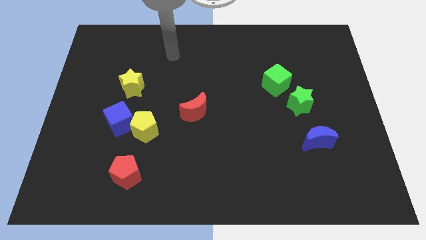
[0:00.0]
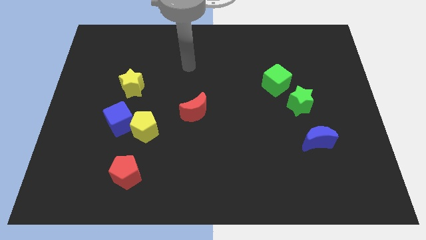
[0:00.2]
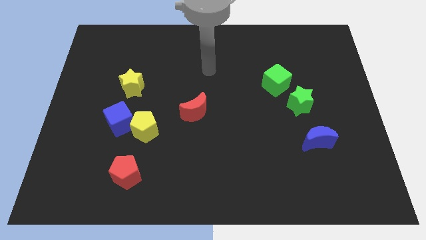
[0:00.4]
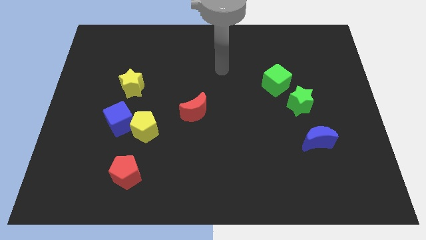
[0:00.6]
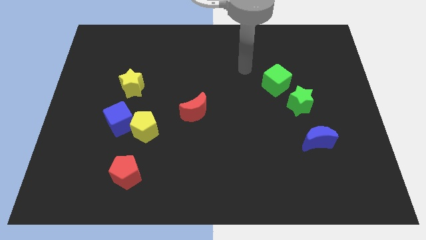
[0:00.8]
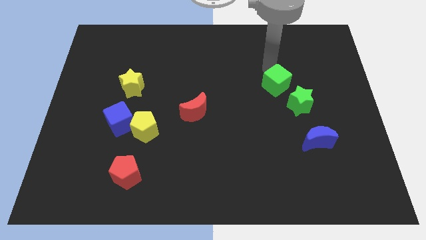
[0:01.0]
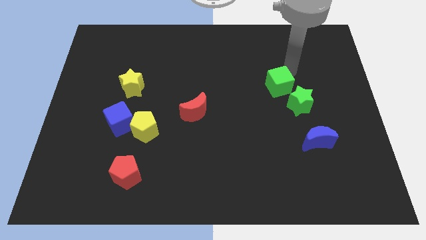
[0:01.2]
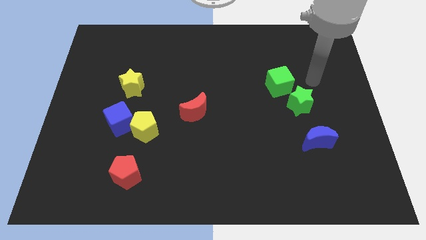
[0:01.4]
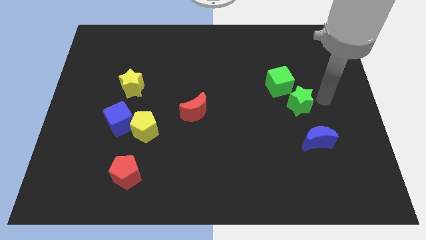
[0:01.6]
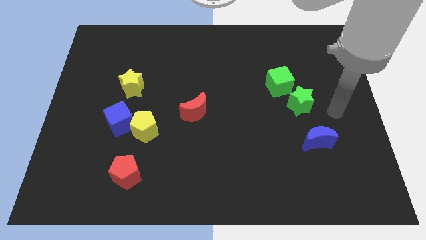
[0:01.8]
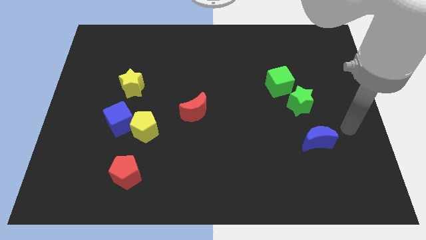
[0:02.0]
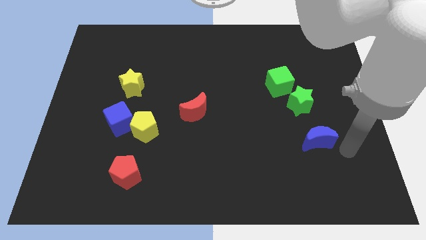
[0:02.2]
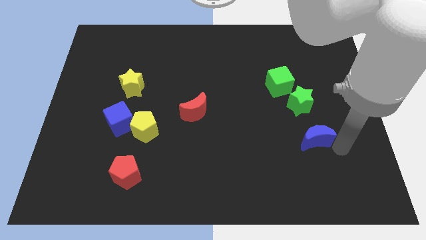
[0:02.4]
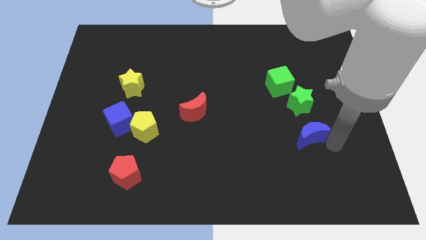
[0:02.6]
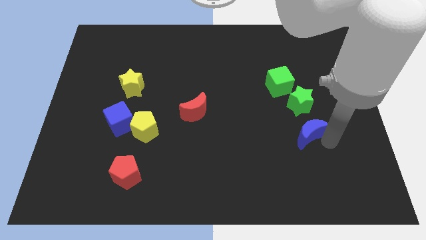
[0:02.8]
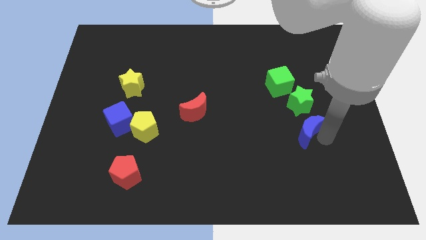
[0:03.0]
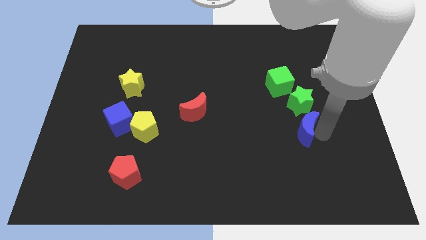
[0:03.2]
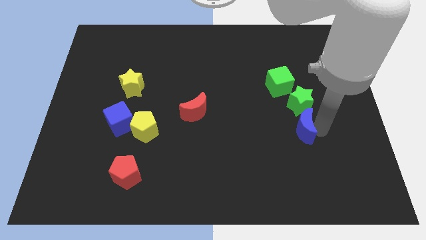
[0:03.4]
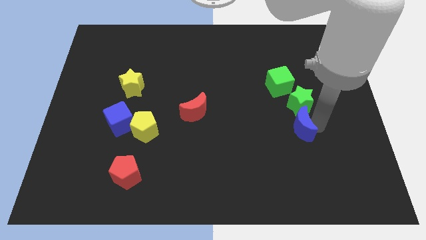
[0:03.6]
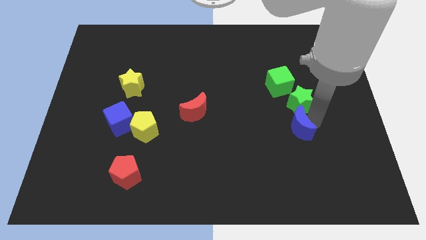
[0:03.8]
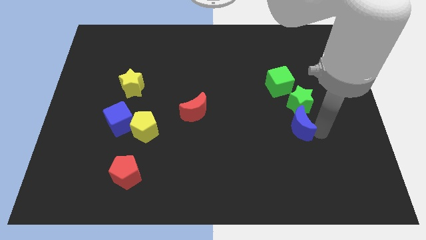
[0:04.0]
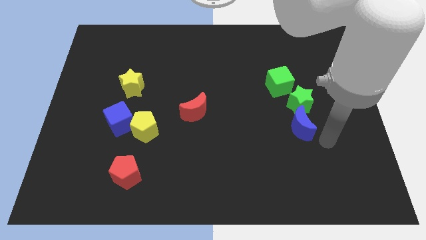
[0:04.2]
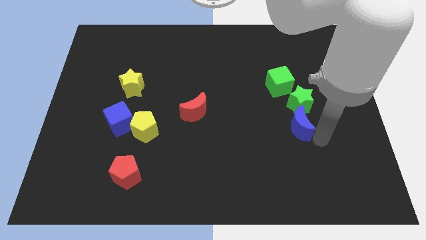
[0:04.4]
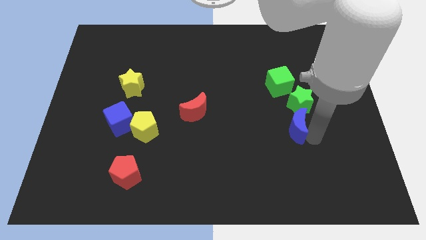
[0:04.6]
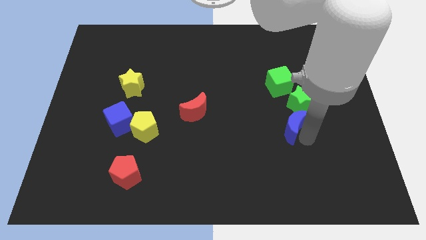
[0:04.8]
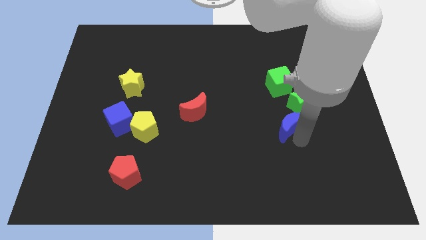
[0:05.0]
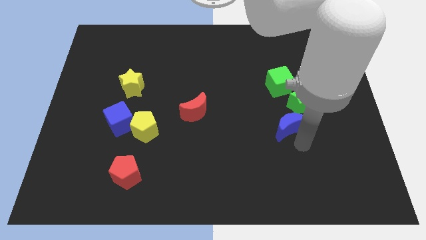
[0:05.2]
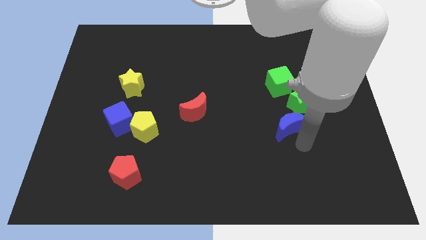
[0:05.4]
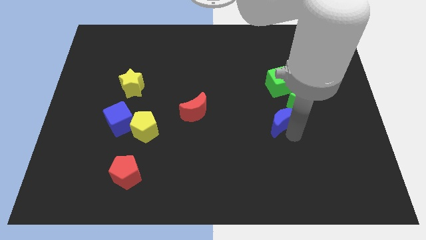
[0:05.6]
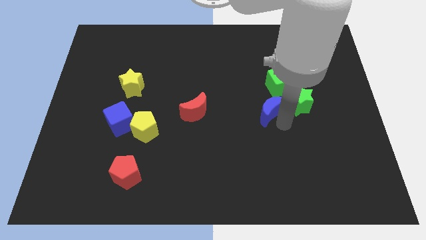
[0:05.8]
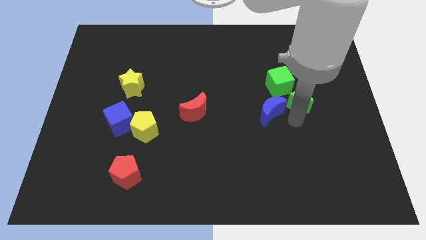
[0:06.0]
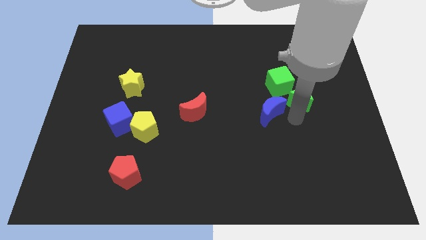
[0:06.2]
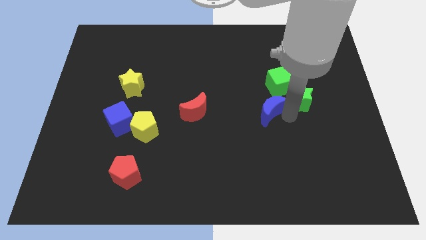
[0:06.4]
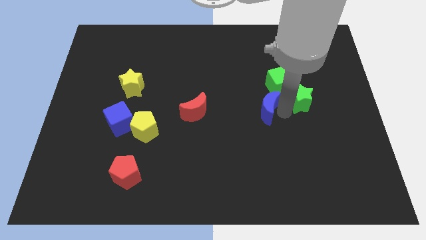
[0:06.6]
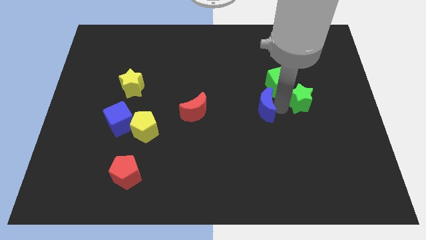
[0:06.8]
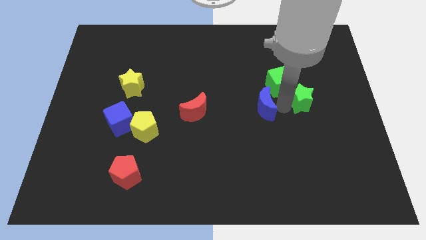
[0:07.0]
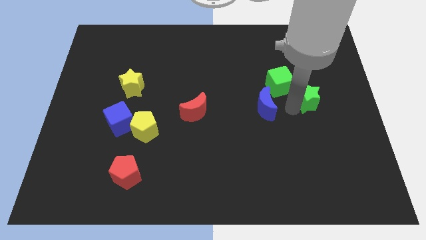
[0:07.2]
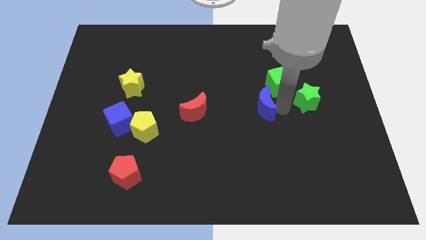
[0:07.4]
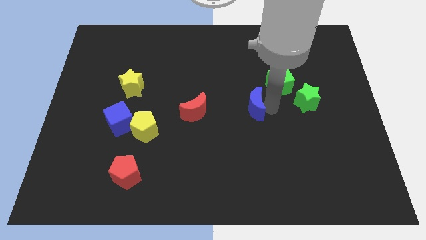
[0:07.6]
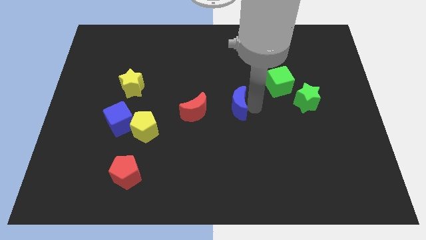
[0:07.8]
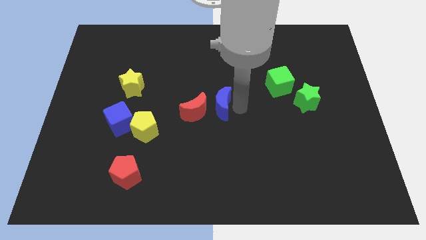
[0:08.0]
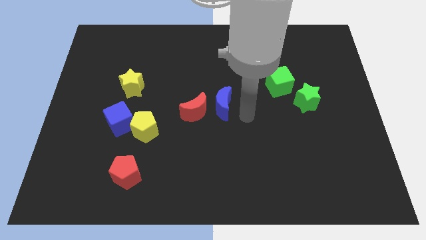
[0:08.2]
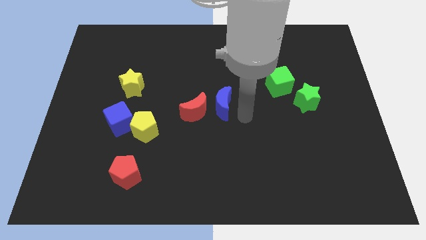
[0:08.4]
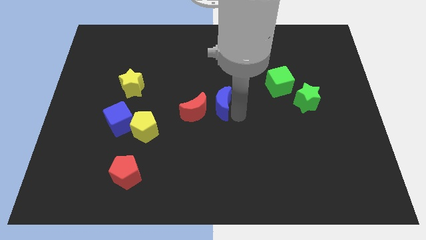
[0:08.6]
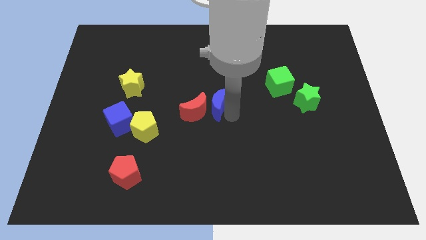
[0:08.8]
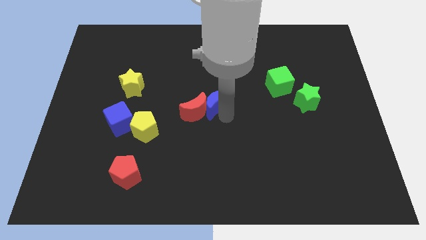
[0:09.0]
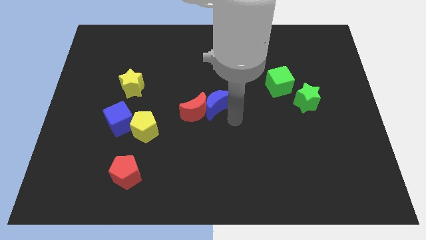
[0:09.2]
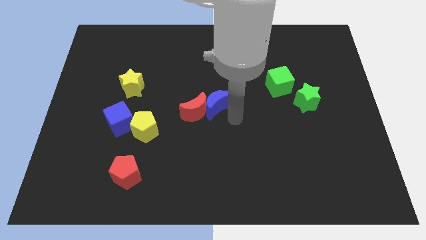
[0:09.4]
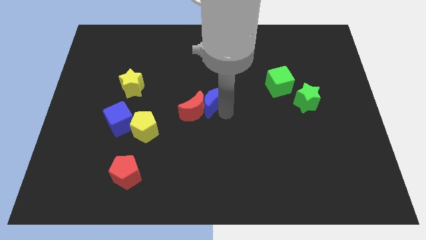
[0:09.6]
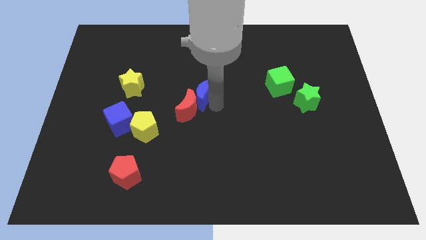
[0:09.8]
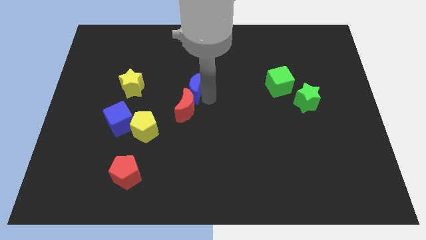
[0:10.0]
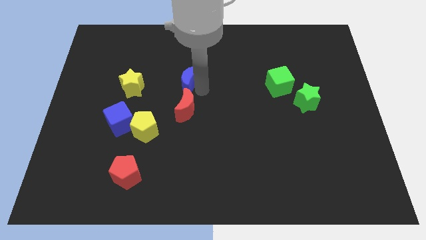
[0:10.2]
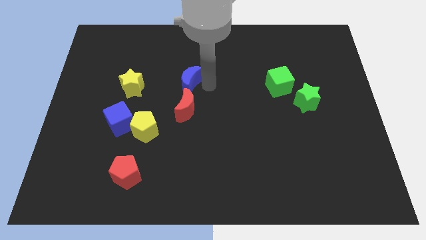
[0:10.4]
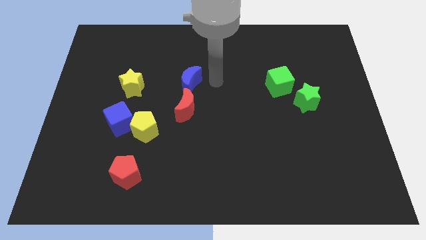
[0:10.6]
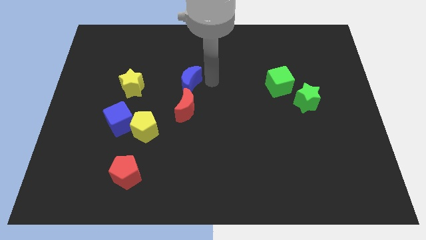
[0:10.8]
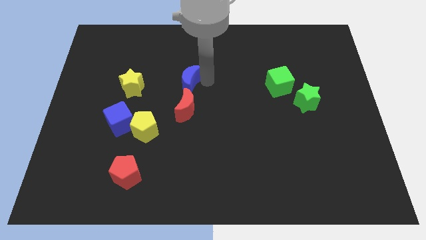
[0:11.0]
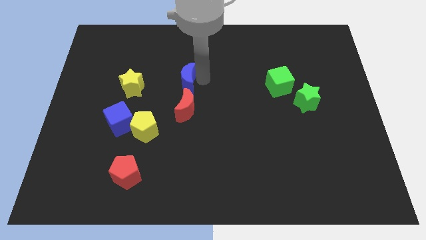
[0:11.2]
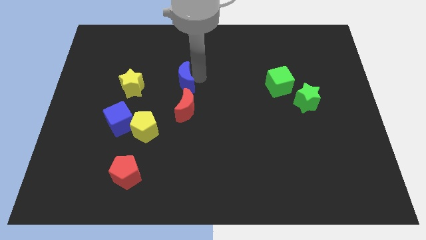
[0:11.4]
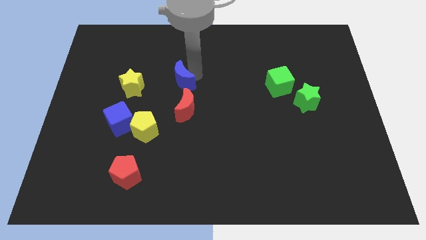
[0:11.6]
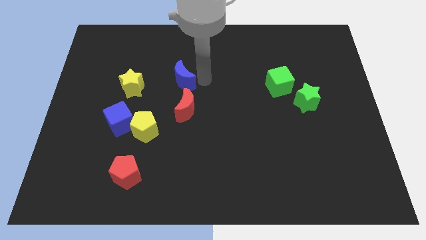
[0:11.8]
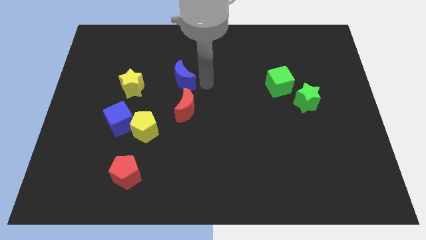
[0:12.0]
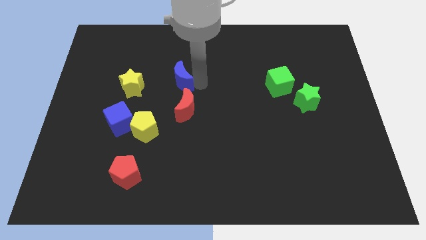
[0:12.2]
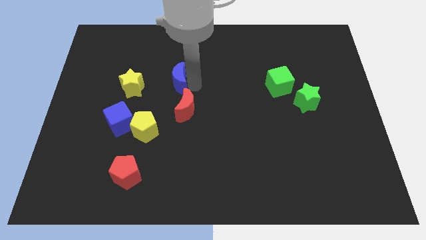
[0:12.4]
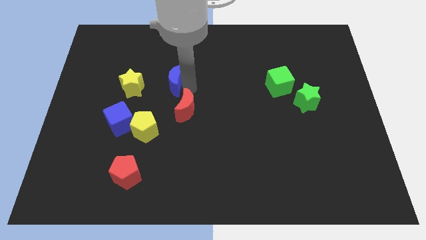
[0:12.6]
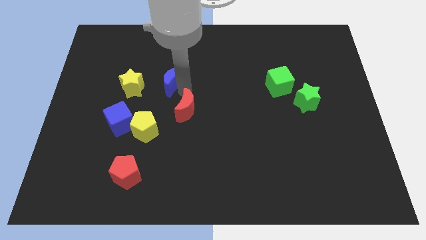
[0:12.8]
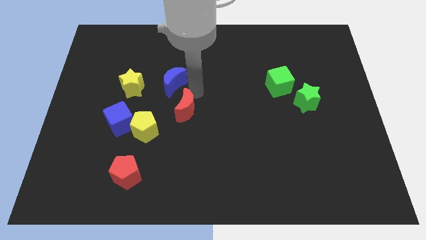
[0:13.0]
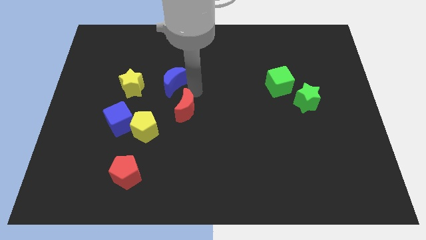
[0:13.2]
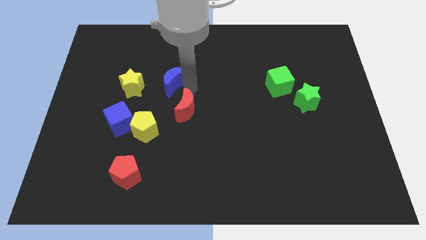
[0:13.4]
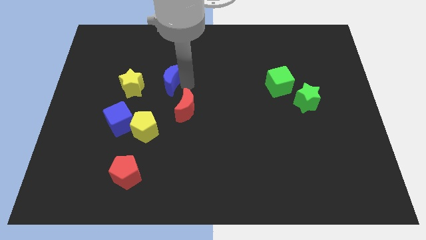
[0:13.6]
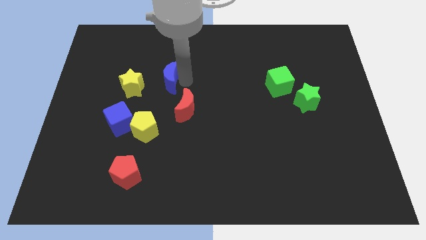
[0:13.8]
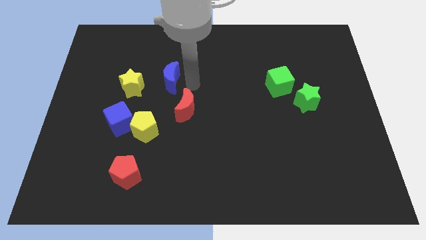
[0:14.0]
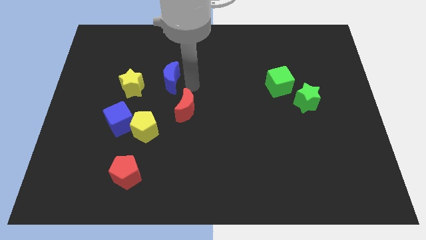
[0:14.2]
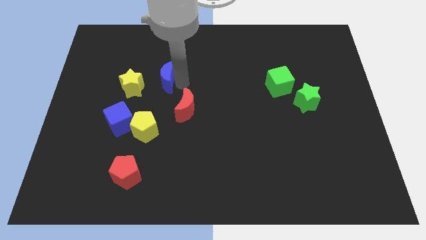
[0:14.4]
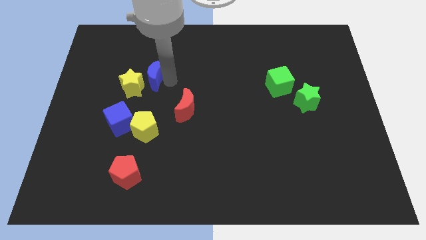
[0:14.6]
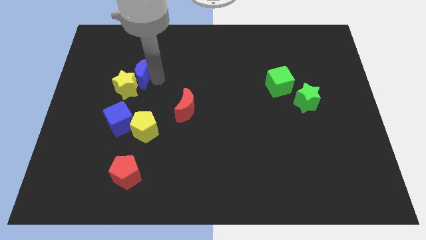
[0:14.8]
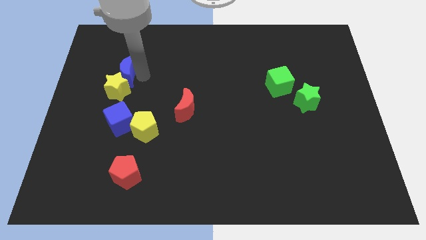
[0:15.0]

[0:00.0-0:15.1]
put the blue moon to the top left of the yellow star
